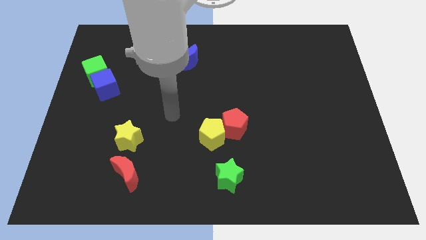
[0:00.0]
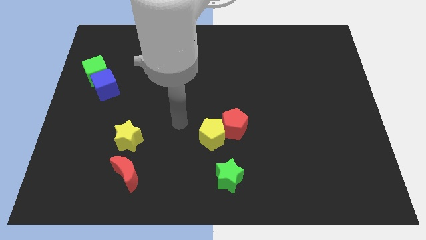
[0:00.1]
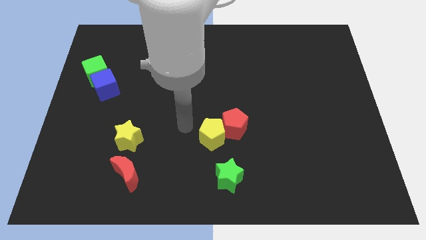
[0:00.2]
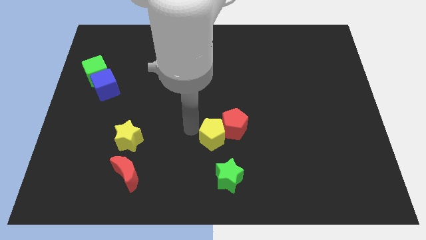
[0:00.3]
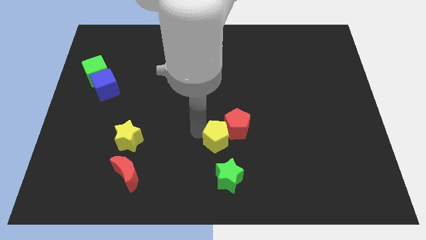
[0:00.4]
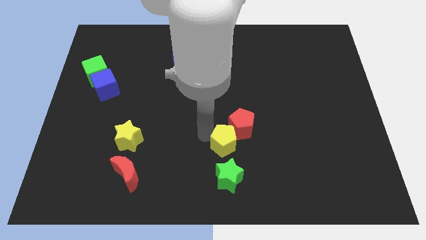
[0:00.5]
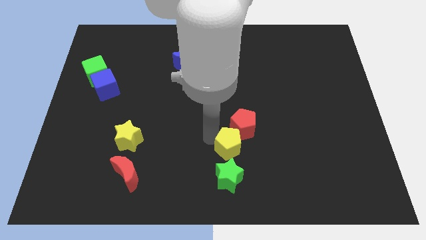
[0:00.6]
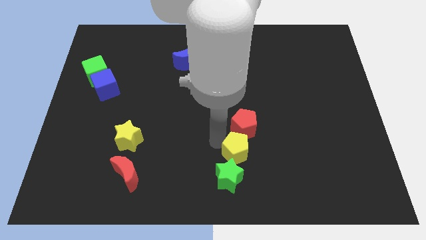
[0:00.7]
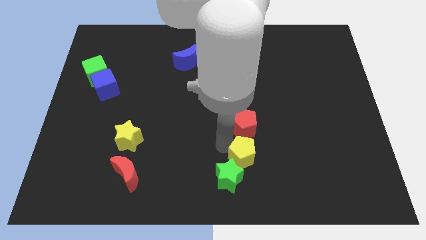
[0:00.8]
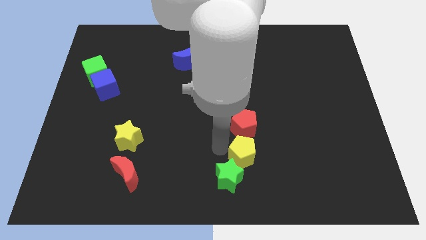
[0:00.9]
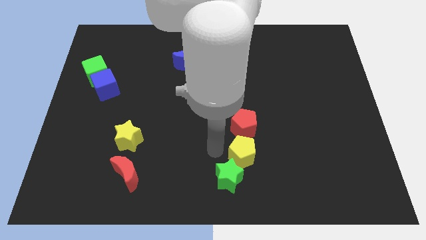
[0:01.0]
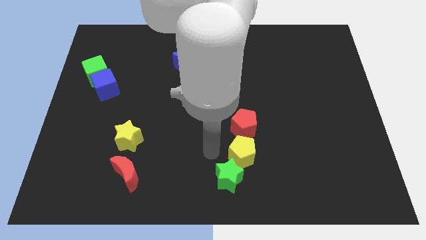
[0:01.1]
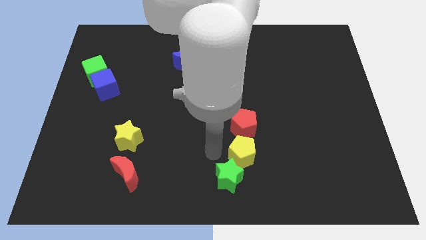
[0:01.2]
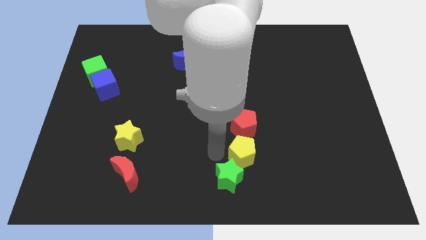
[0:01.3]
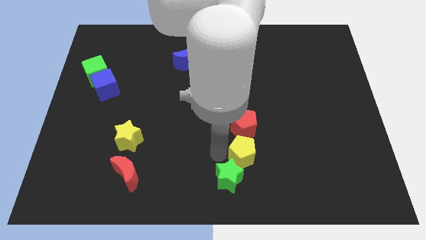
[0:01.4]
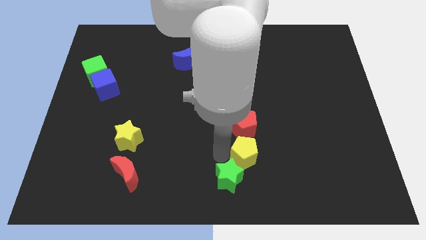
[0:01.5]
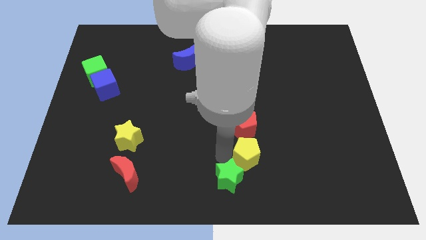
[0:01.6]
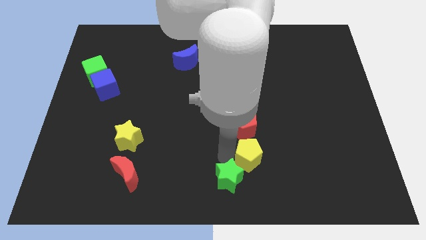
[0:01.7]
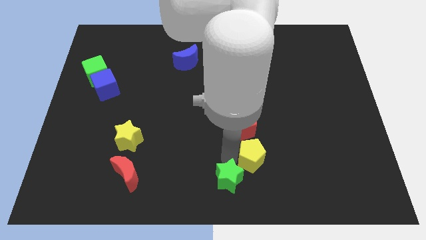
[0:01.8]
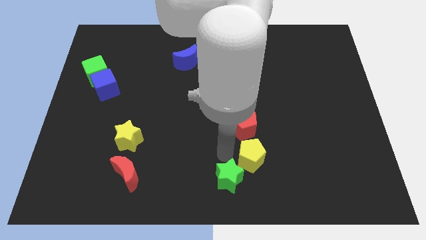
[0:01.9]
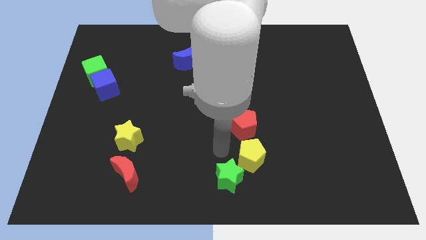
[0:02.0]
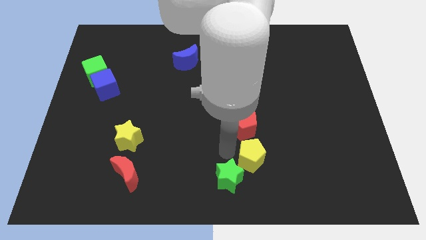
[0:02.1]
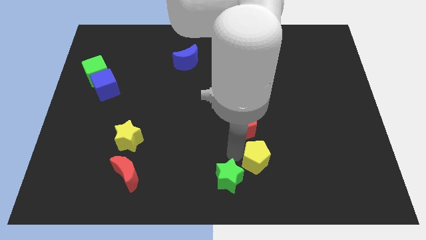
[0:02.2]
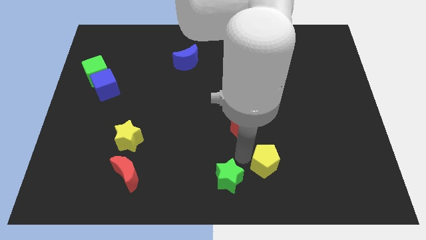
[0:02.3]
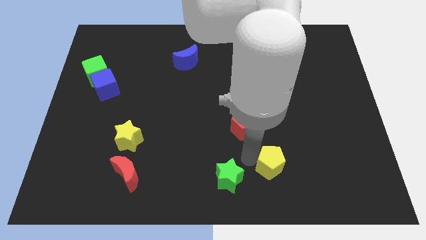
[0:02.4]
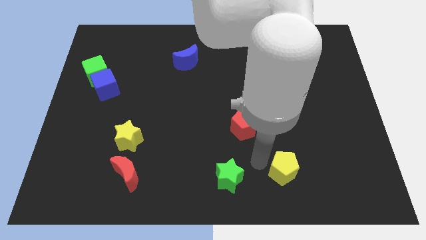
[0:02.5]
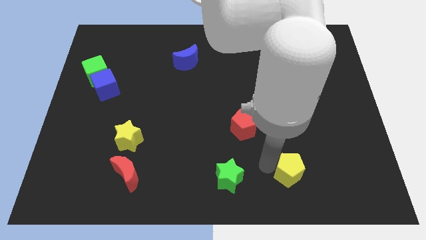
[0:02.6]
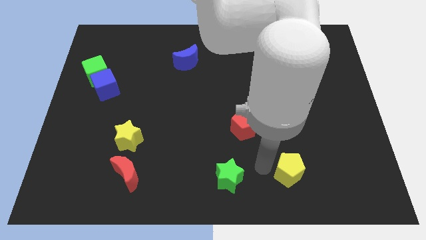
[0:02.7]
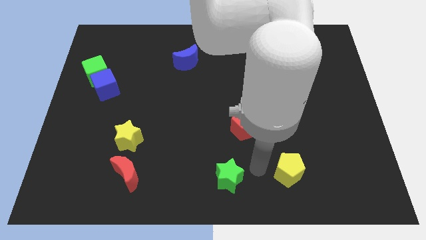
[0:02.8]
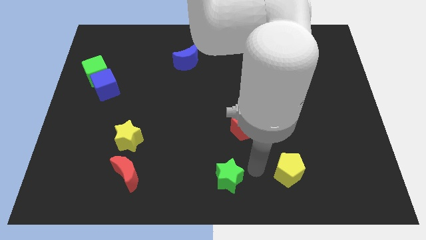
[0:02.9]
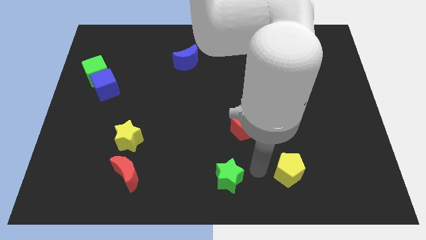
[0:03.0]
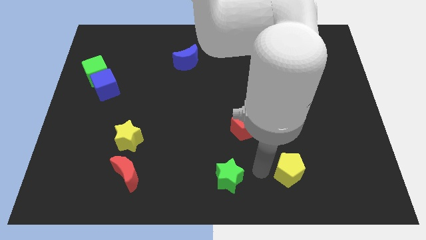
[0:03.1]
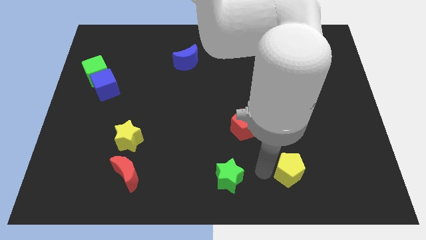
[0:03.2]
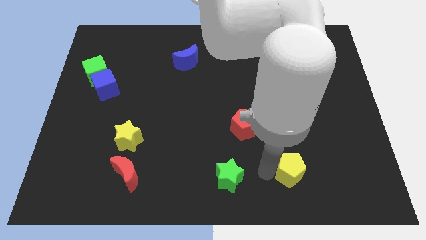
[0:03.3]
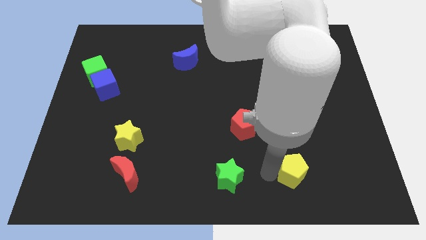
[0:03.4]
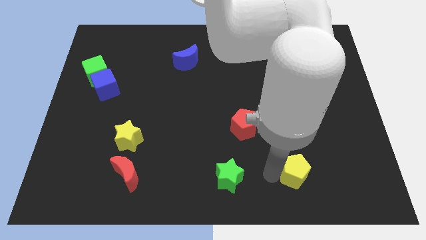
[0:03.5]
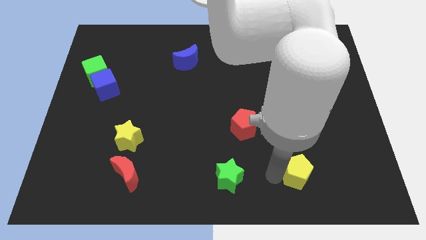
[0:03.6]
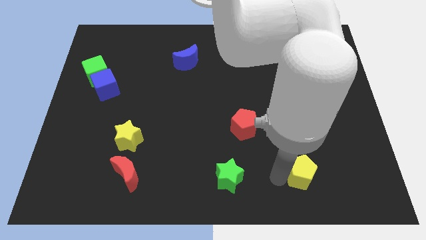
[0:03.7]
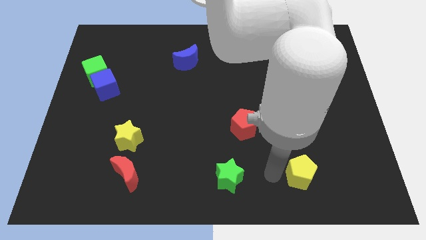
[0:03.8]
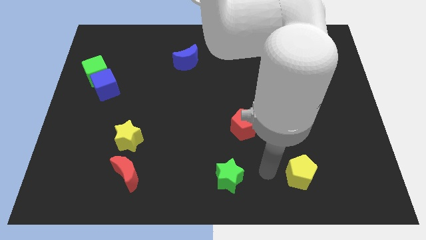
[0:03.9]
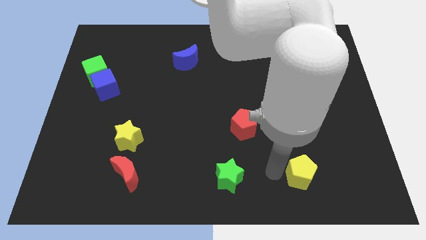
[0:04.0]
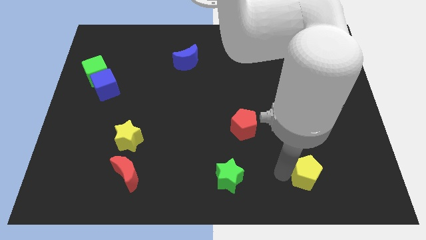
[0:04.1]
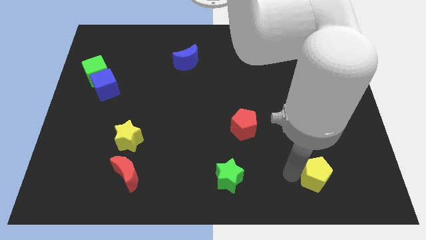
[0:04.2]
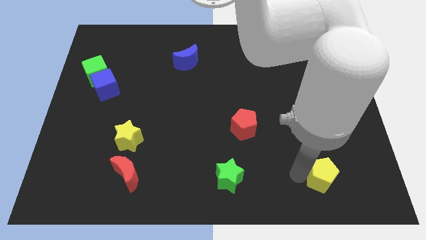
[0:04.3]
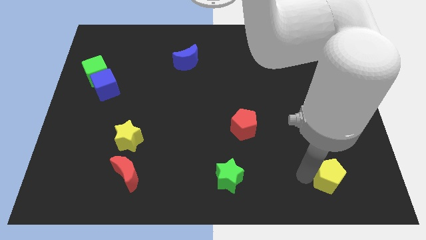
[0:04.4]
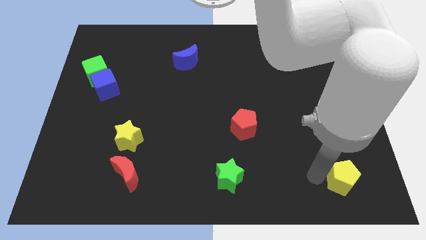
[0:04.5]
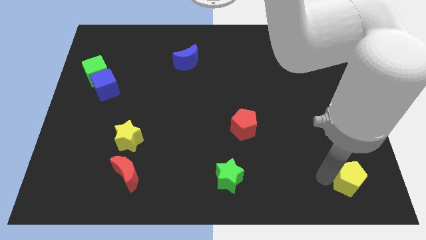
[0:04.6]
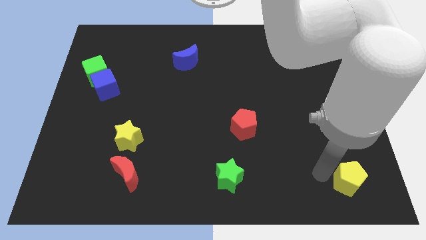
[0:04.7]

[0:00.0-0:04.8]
move the yellow pentagon to the bottom right of the board

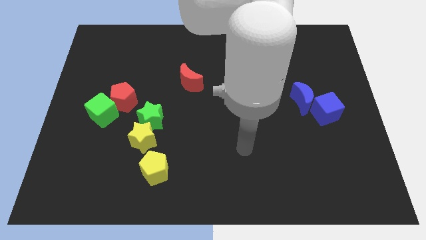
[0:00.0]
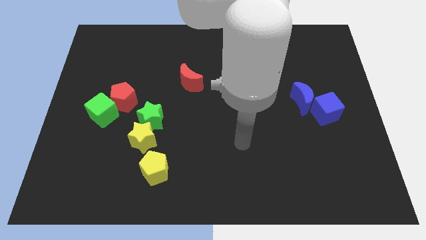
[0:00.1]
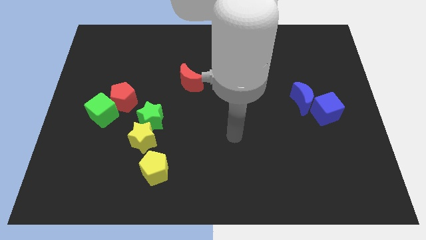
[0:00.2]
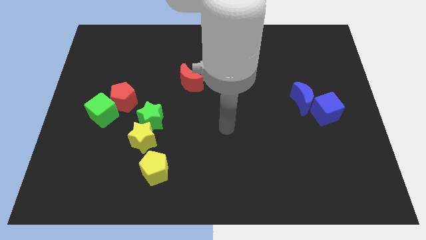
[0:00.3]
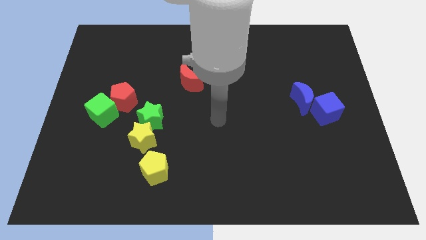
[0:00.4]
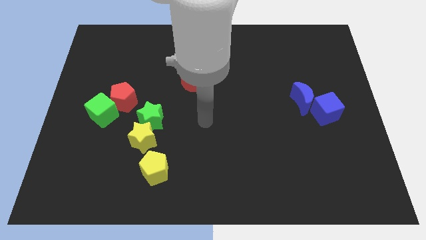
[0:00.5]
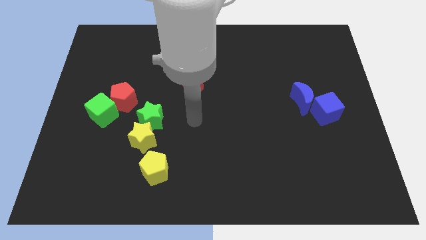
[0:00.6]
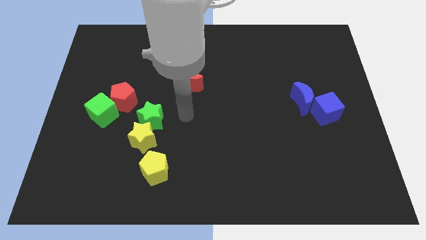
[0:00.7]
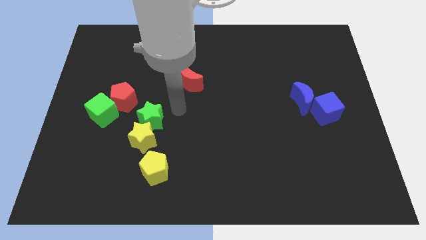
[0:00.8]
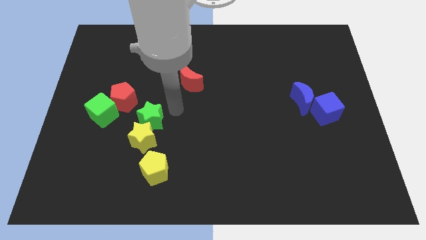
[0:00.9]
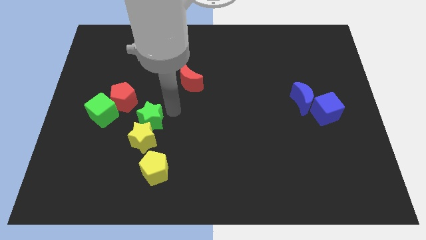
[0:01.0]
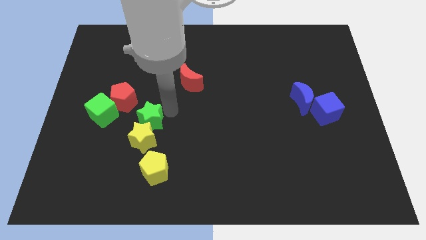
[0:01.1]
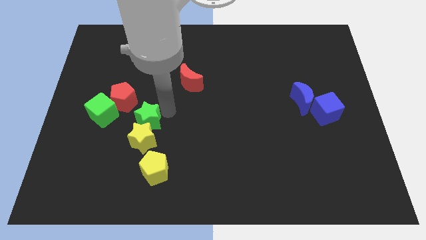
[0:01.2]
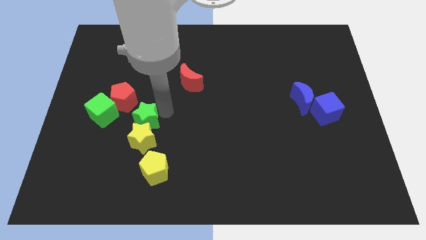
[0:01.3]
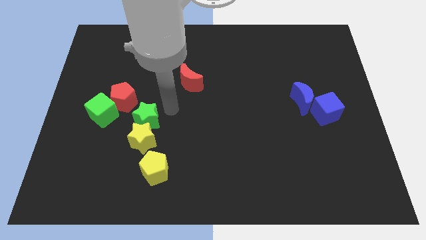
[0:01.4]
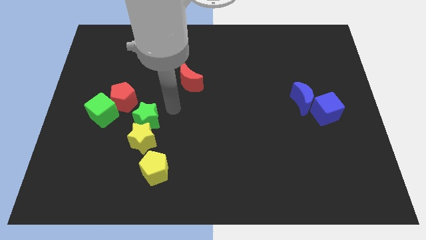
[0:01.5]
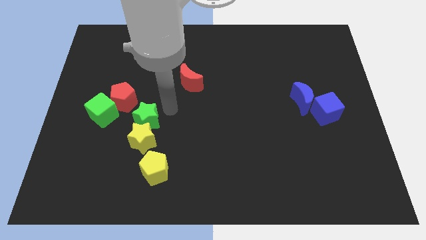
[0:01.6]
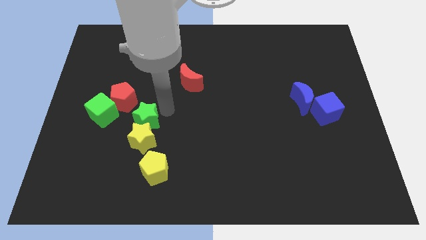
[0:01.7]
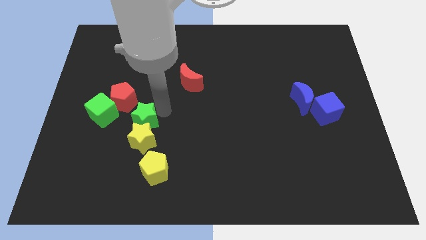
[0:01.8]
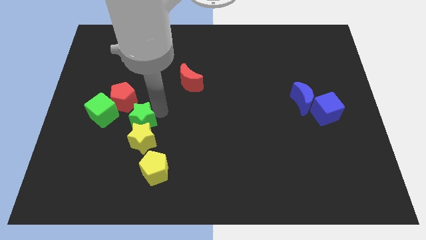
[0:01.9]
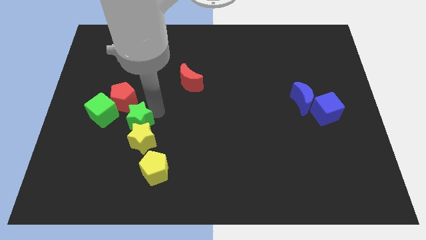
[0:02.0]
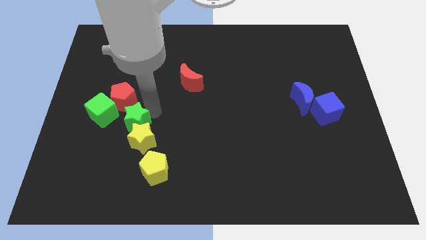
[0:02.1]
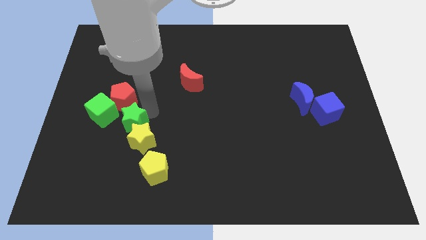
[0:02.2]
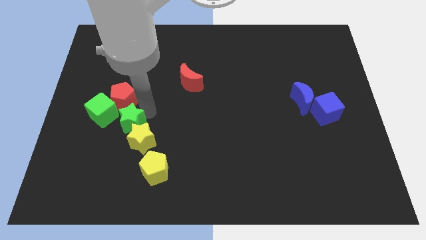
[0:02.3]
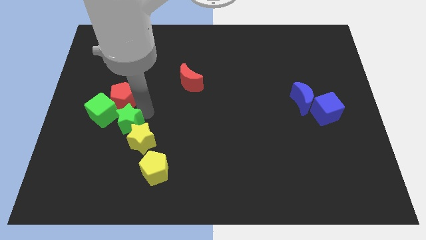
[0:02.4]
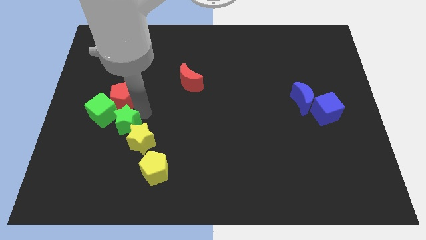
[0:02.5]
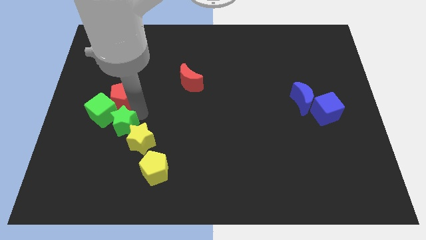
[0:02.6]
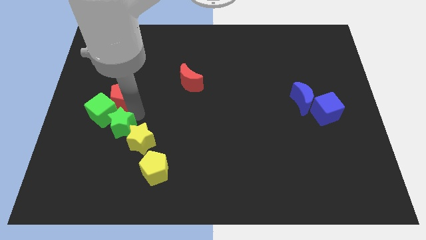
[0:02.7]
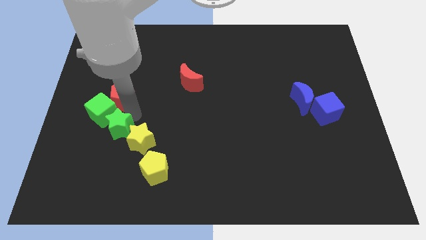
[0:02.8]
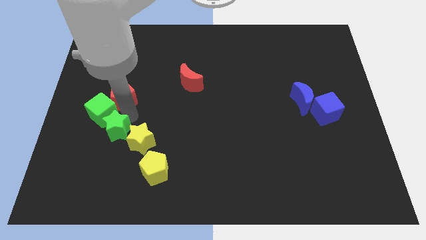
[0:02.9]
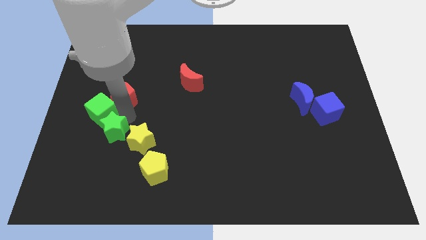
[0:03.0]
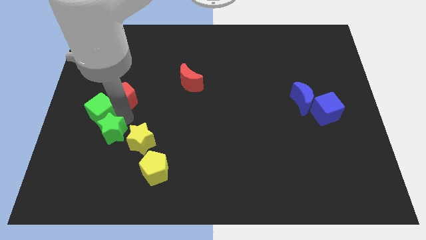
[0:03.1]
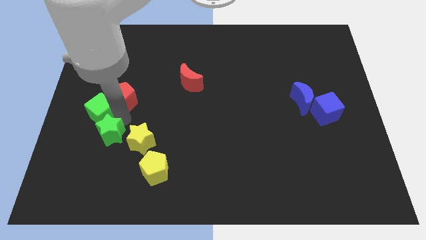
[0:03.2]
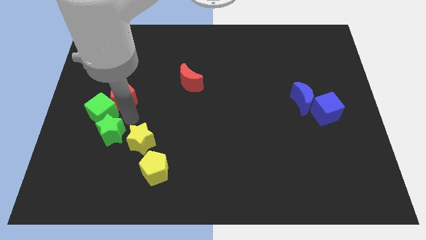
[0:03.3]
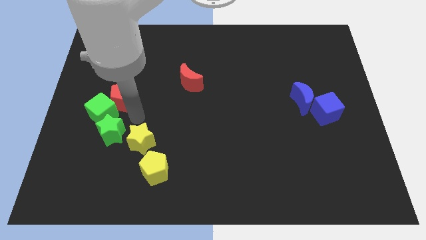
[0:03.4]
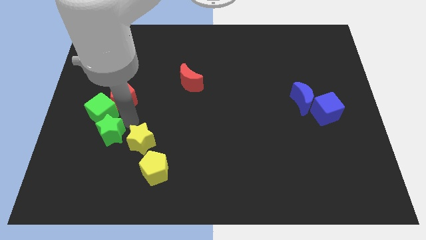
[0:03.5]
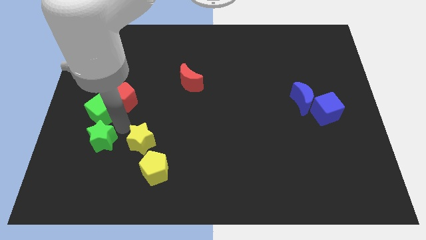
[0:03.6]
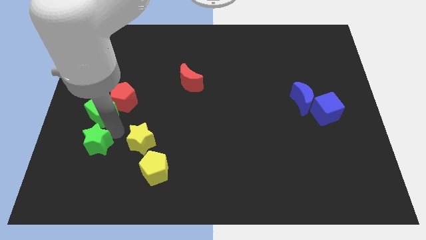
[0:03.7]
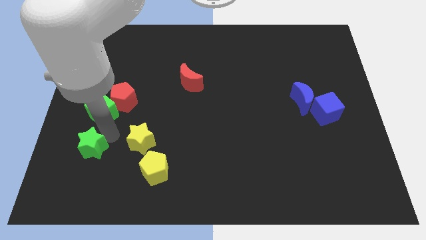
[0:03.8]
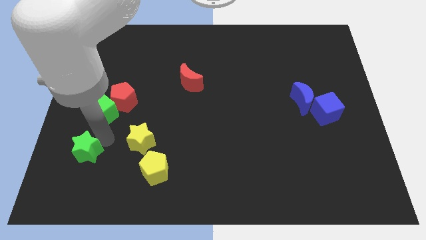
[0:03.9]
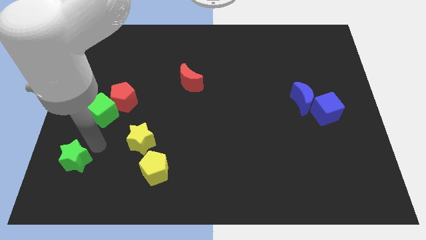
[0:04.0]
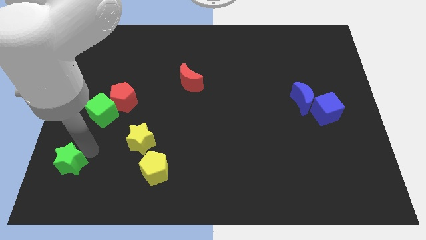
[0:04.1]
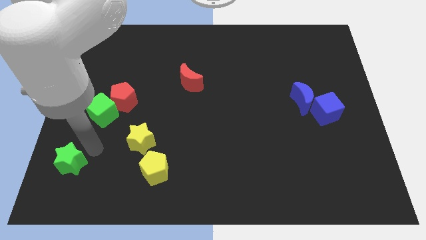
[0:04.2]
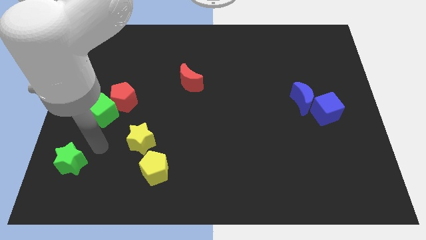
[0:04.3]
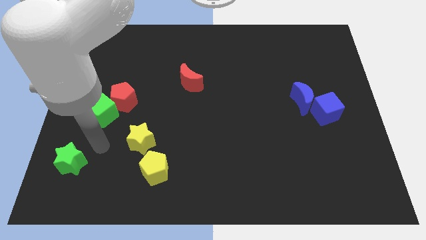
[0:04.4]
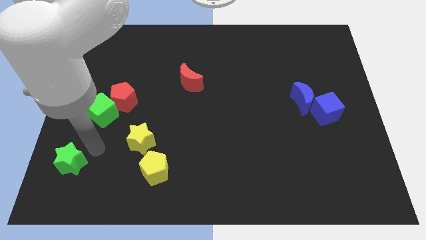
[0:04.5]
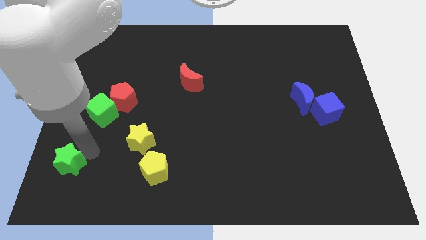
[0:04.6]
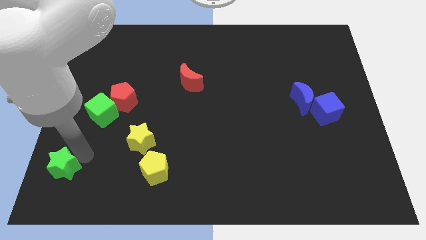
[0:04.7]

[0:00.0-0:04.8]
put the green star to the bottom left
